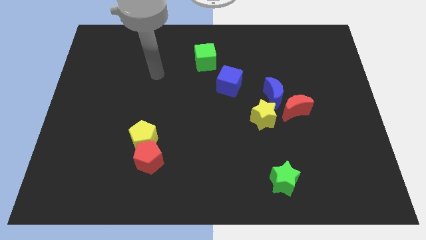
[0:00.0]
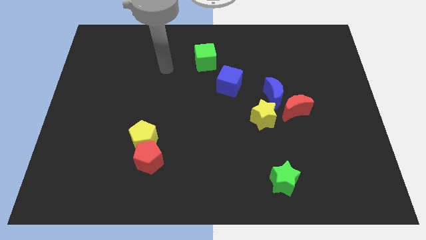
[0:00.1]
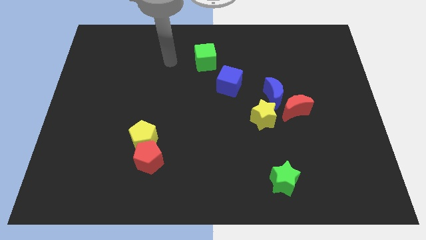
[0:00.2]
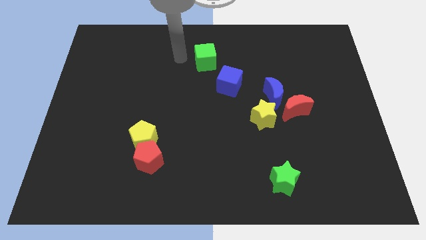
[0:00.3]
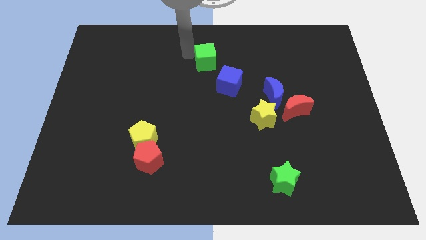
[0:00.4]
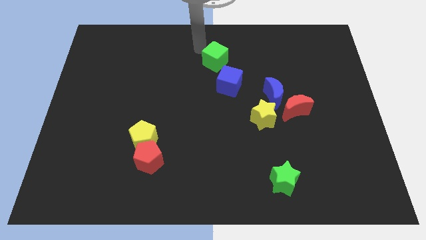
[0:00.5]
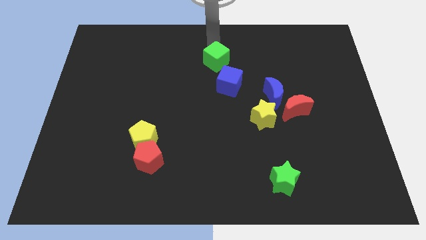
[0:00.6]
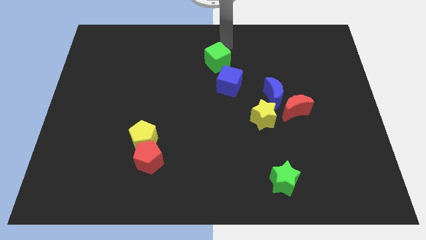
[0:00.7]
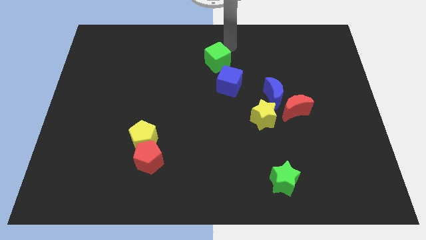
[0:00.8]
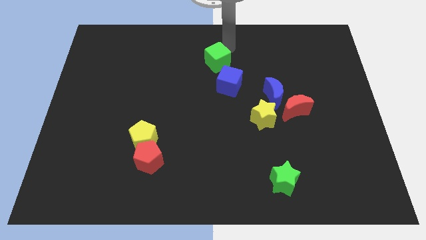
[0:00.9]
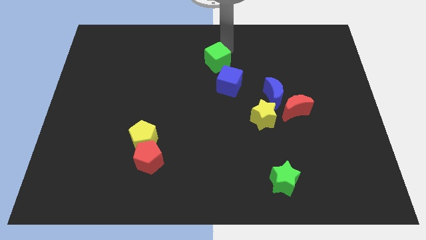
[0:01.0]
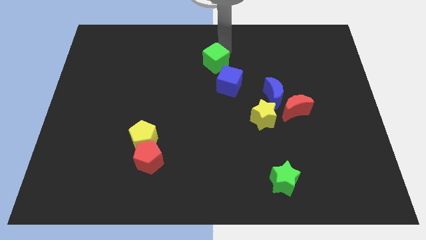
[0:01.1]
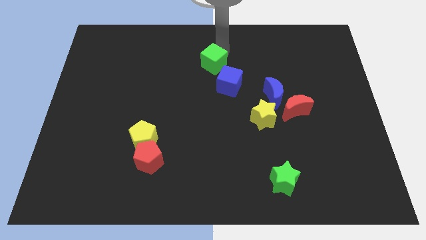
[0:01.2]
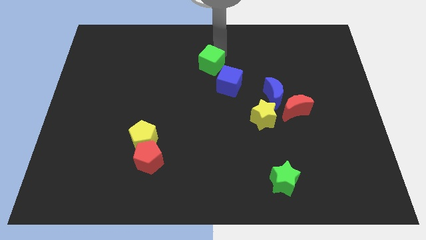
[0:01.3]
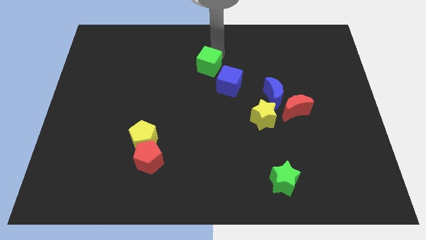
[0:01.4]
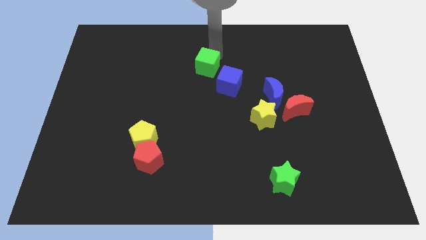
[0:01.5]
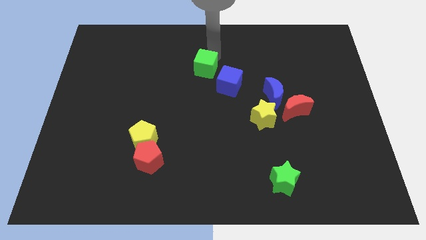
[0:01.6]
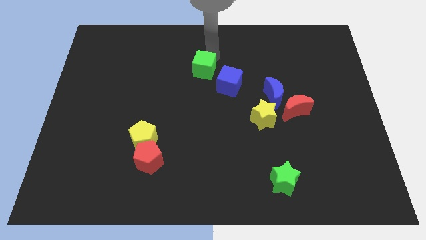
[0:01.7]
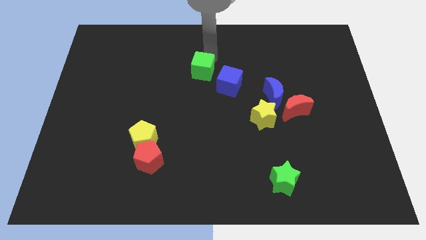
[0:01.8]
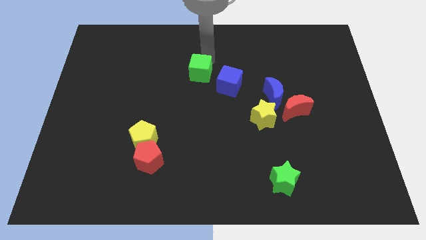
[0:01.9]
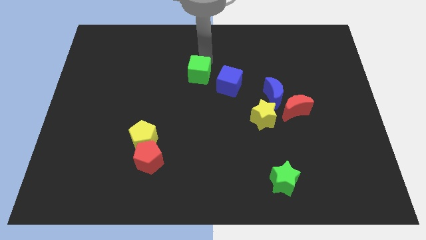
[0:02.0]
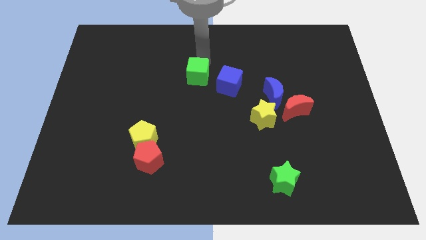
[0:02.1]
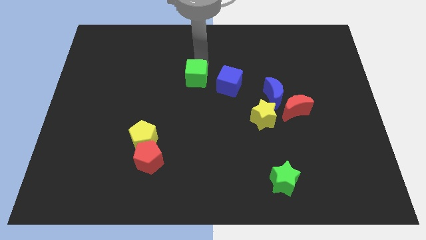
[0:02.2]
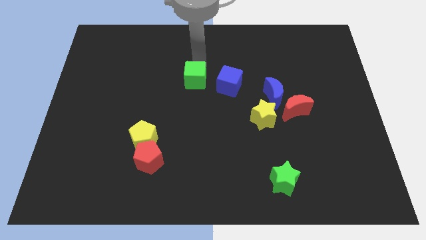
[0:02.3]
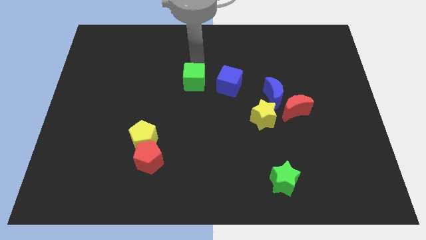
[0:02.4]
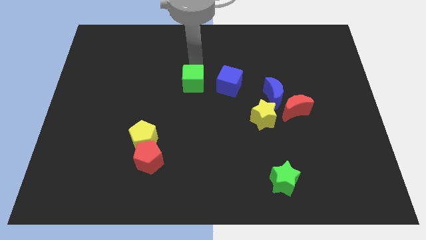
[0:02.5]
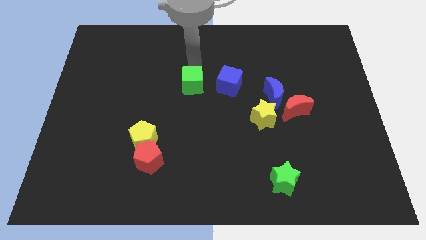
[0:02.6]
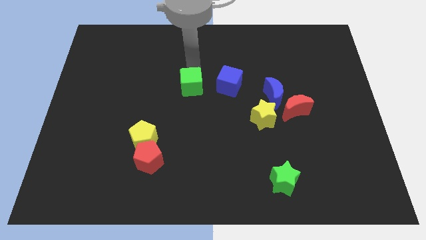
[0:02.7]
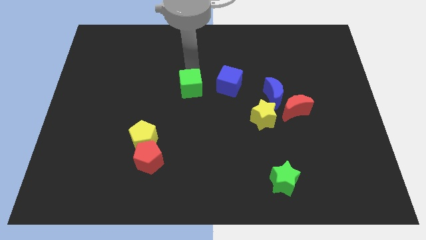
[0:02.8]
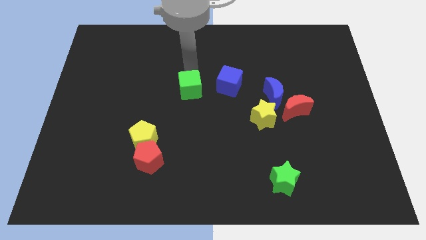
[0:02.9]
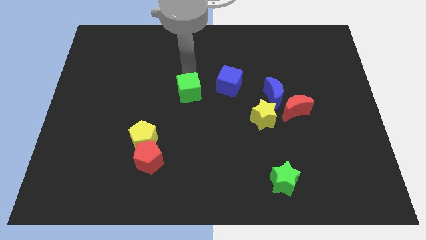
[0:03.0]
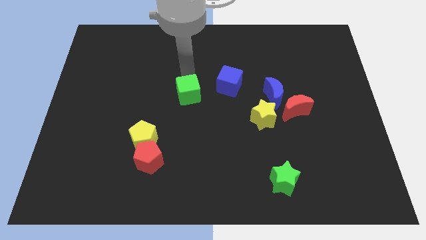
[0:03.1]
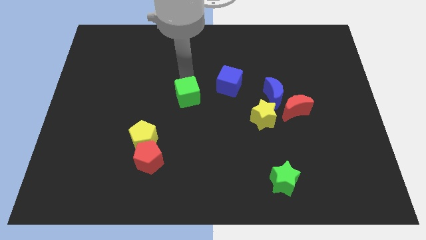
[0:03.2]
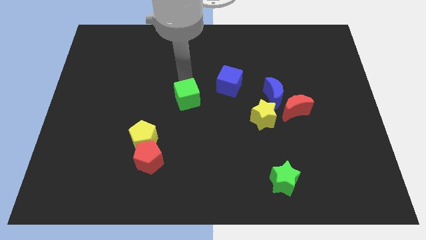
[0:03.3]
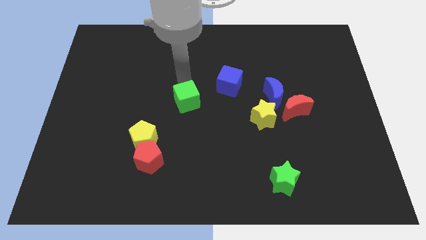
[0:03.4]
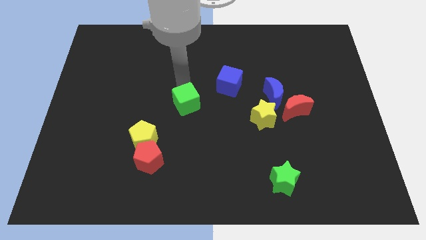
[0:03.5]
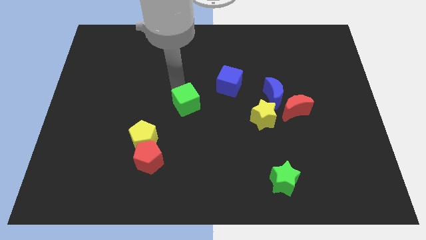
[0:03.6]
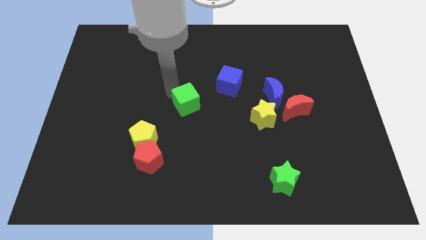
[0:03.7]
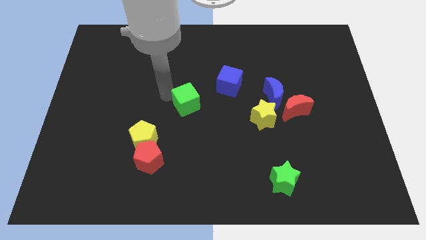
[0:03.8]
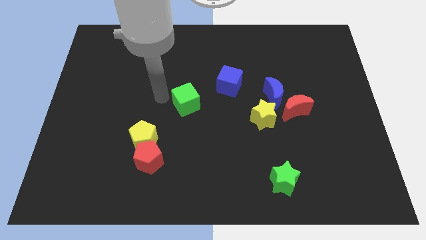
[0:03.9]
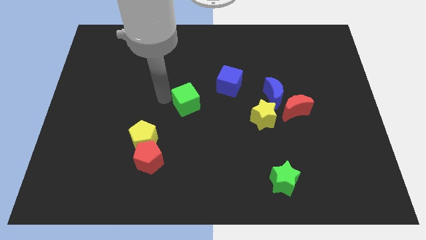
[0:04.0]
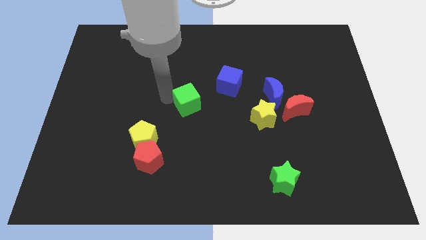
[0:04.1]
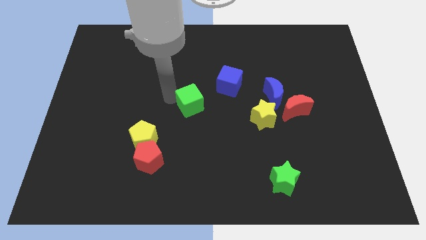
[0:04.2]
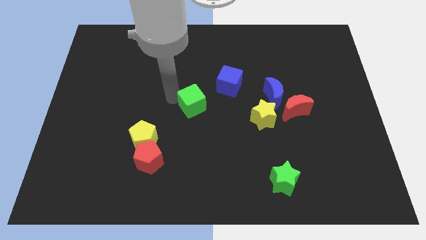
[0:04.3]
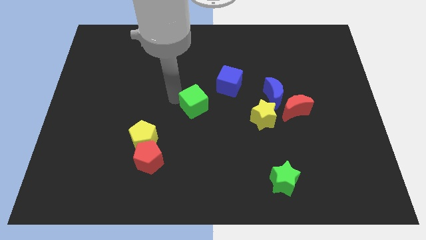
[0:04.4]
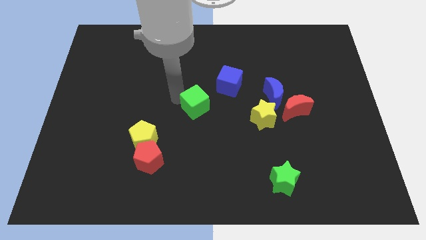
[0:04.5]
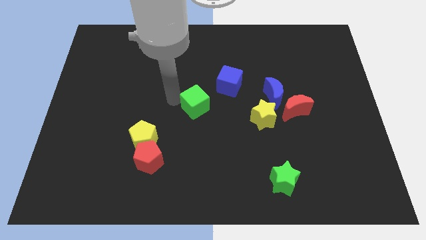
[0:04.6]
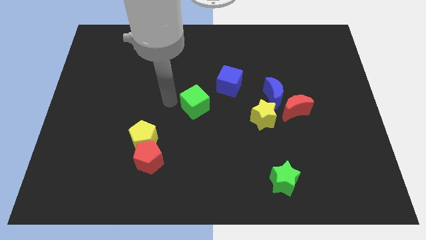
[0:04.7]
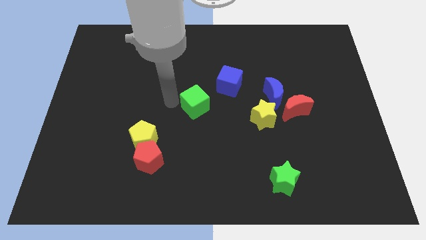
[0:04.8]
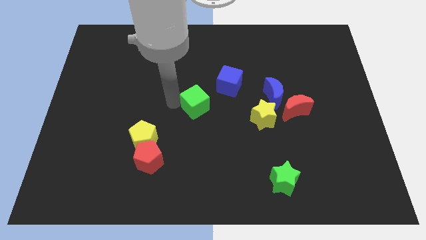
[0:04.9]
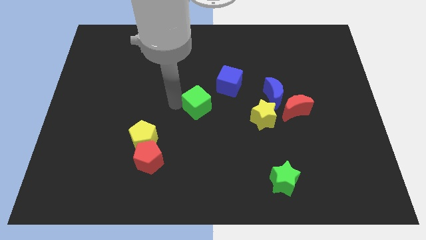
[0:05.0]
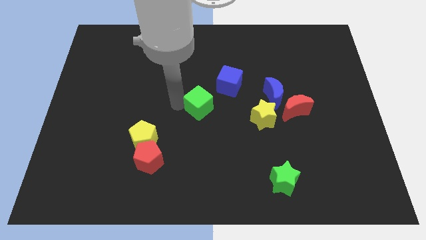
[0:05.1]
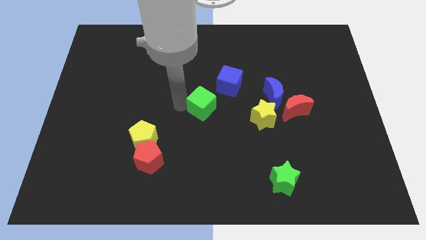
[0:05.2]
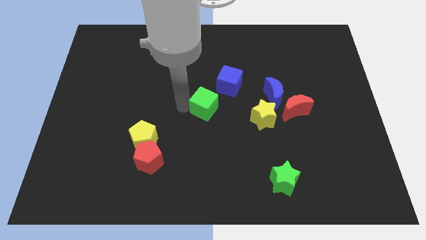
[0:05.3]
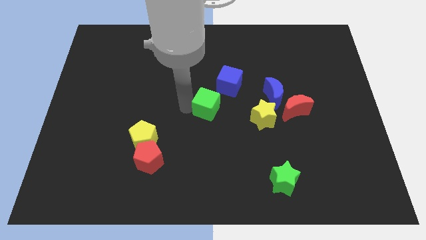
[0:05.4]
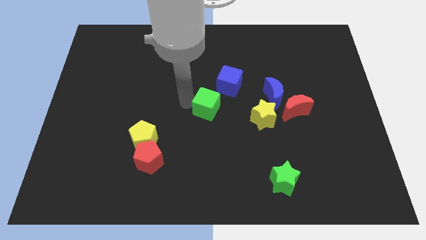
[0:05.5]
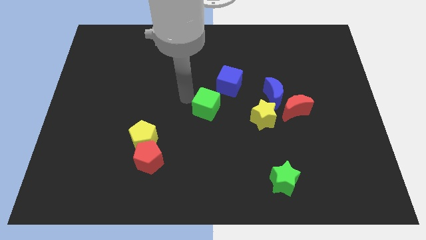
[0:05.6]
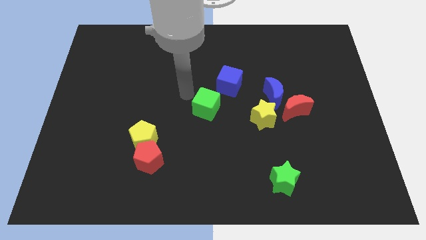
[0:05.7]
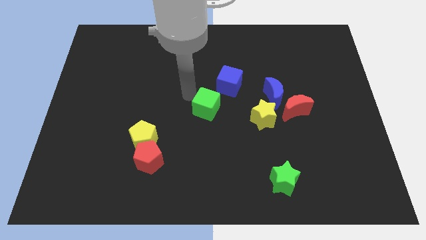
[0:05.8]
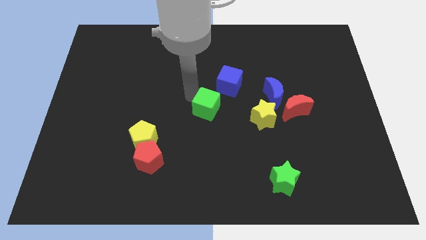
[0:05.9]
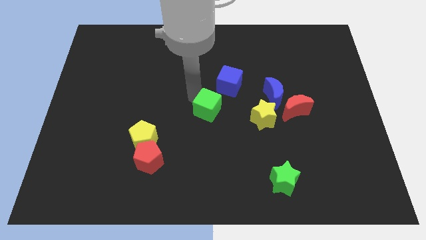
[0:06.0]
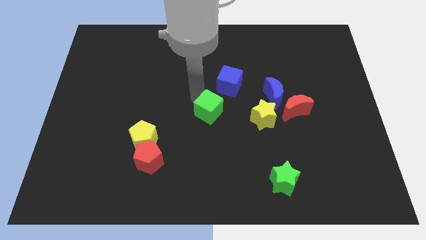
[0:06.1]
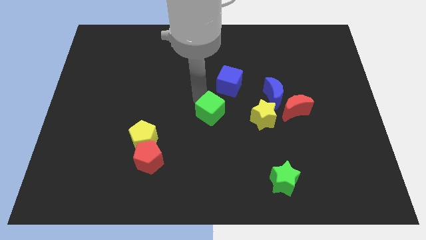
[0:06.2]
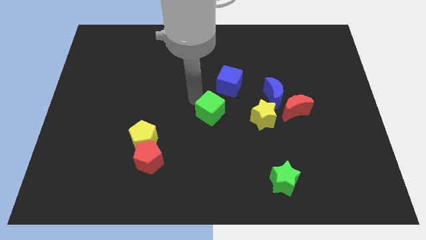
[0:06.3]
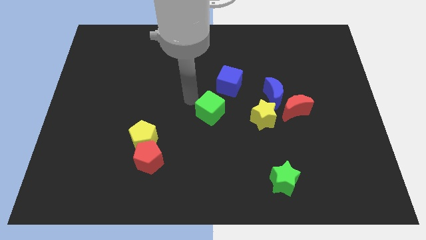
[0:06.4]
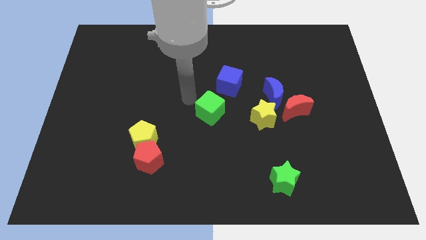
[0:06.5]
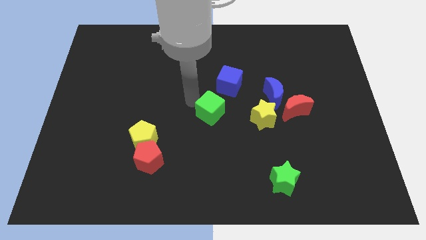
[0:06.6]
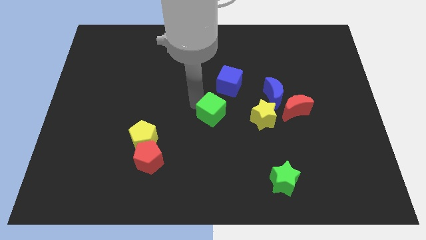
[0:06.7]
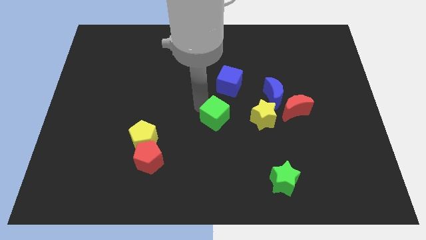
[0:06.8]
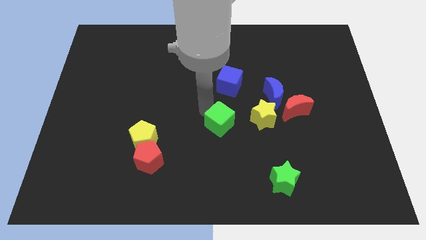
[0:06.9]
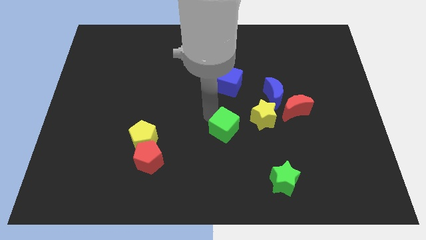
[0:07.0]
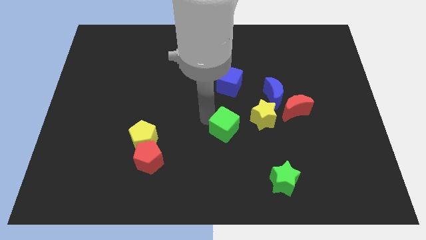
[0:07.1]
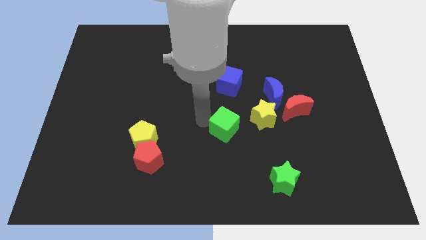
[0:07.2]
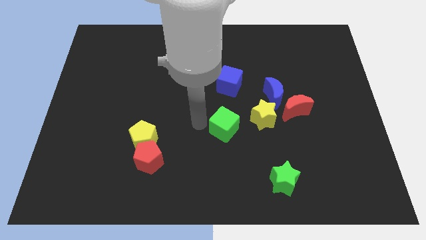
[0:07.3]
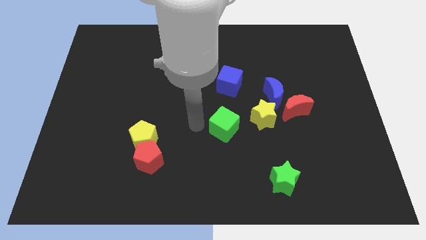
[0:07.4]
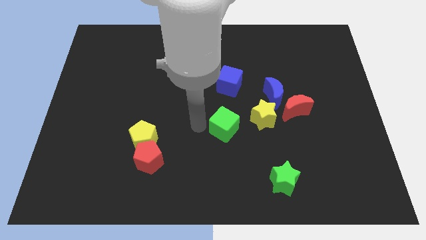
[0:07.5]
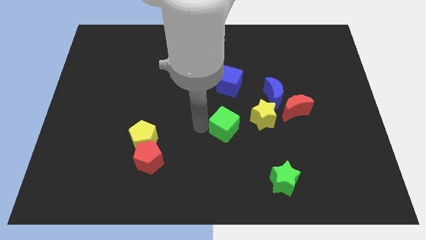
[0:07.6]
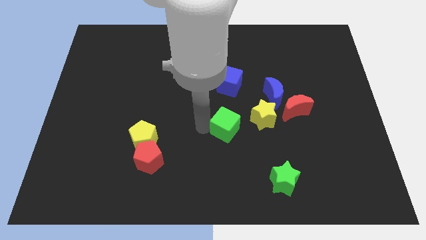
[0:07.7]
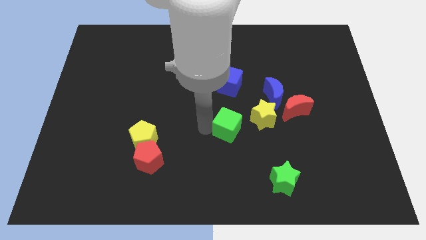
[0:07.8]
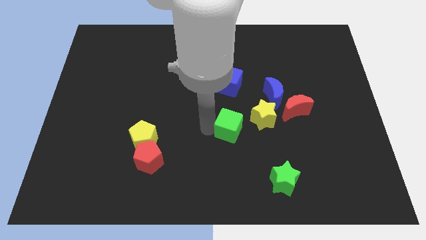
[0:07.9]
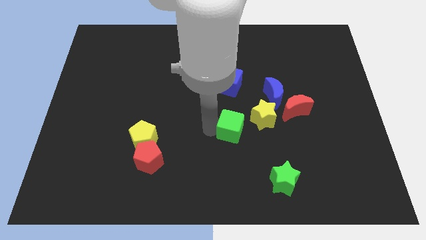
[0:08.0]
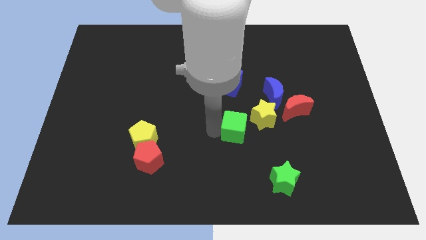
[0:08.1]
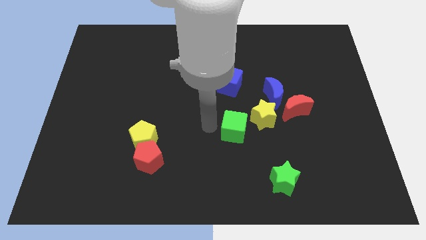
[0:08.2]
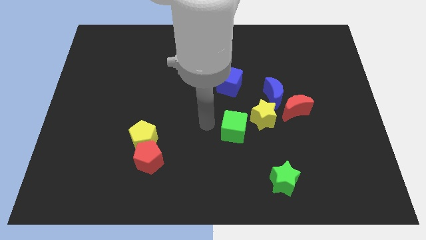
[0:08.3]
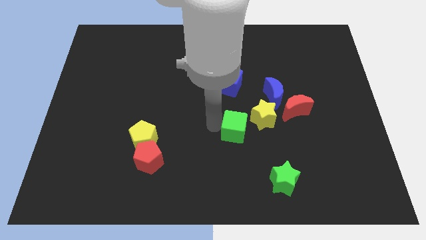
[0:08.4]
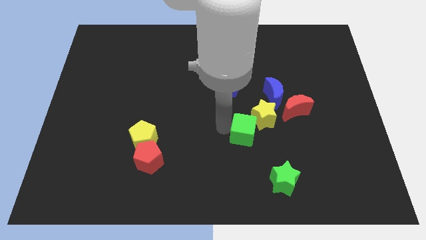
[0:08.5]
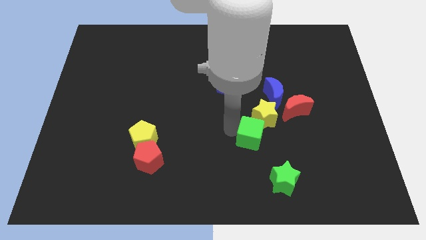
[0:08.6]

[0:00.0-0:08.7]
move the green cube down and then to the right
